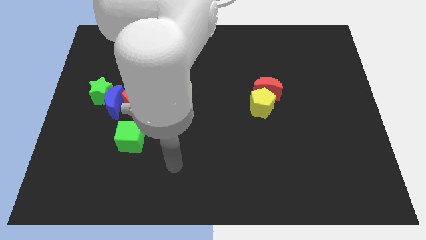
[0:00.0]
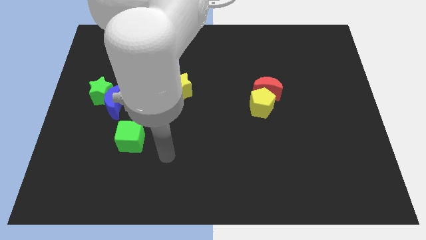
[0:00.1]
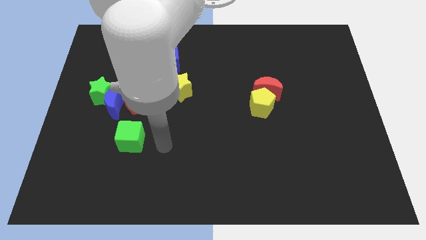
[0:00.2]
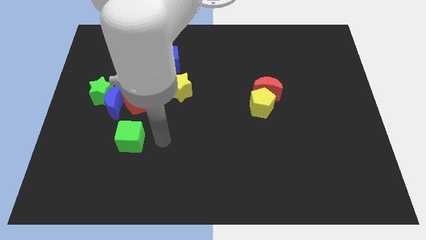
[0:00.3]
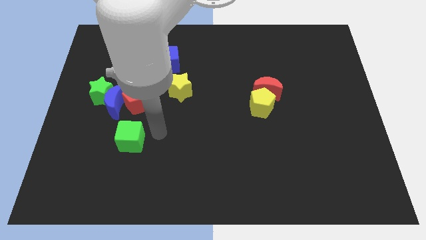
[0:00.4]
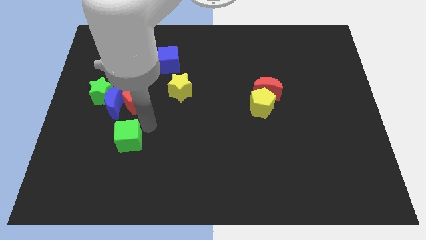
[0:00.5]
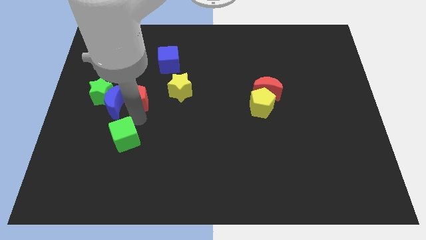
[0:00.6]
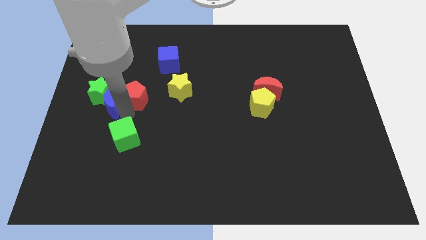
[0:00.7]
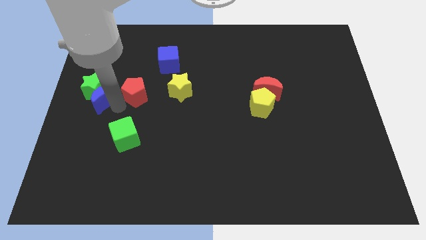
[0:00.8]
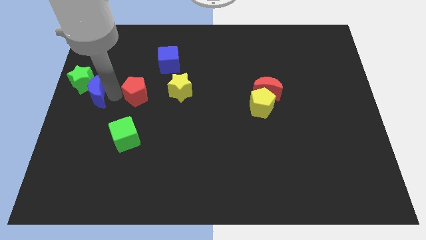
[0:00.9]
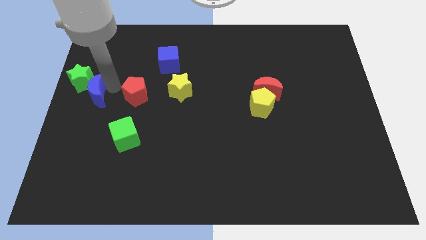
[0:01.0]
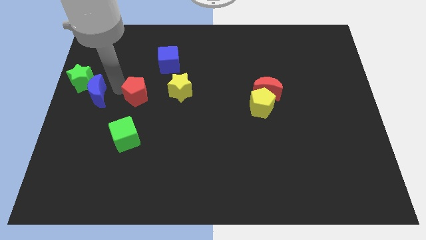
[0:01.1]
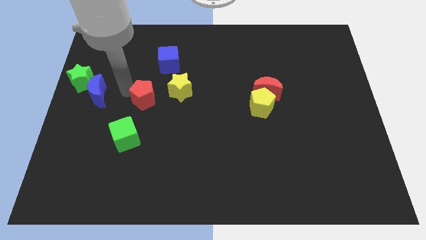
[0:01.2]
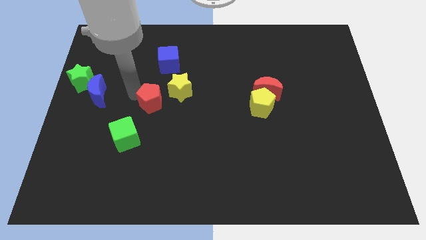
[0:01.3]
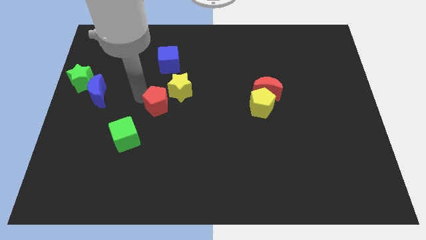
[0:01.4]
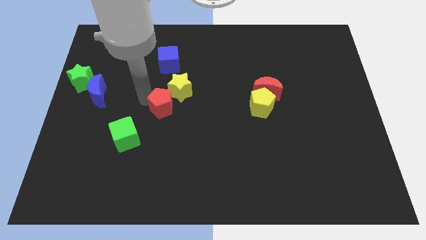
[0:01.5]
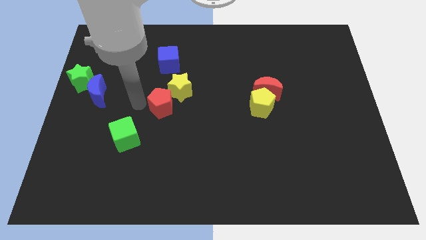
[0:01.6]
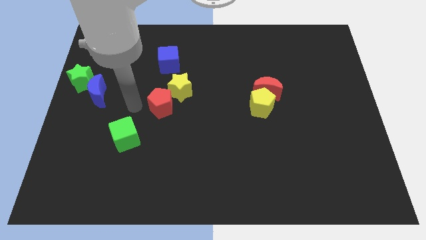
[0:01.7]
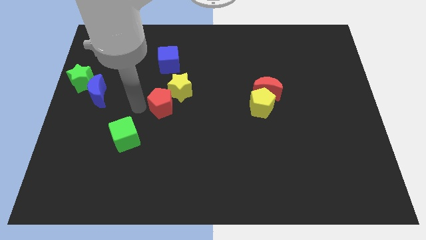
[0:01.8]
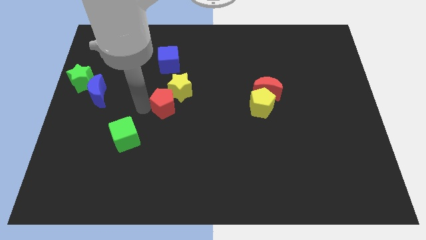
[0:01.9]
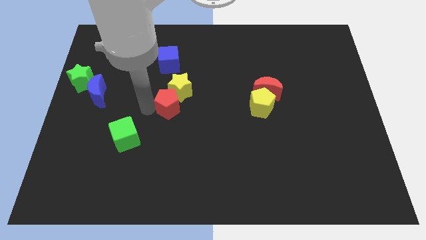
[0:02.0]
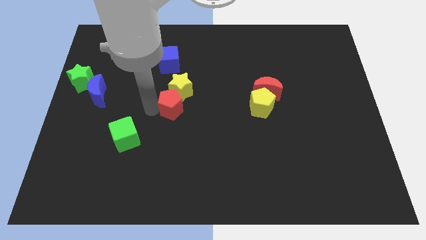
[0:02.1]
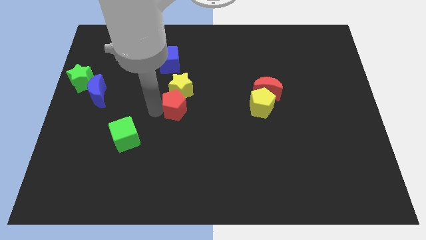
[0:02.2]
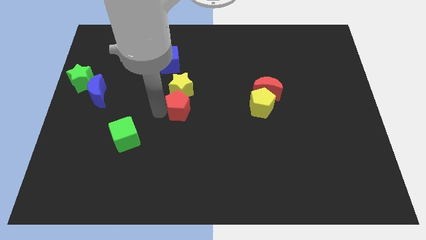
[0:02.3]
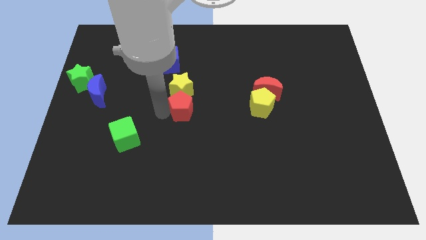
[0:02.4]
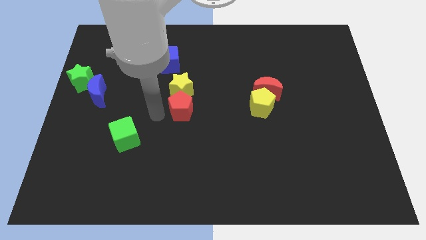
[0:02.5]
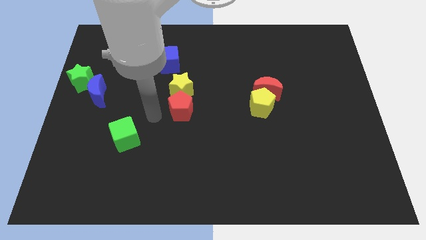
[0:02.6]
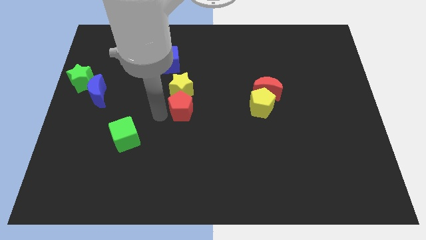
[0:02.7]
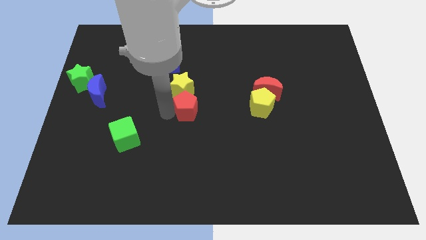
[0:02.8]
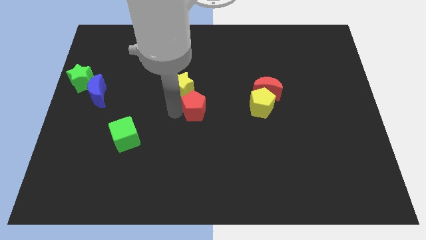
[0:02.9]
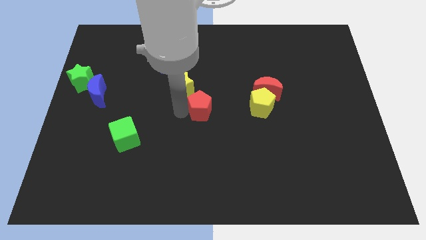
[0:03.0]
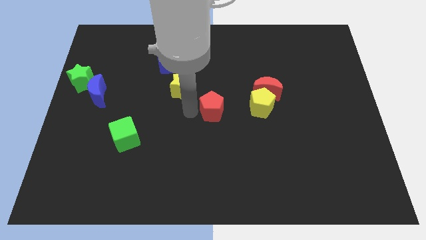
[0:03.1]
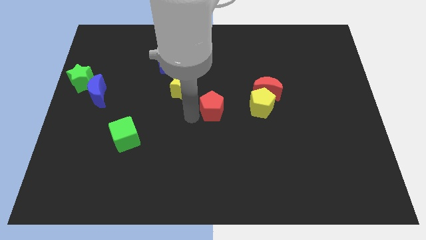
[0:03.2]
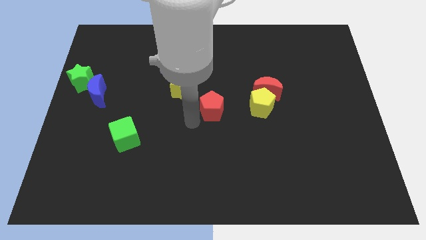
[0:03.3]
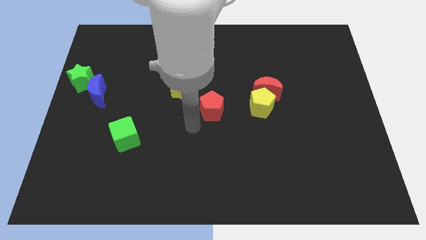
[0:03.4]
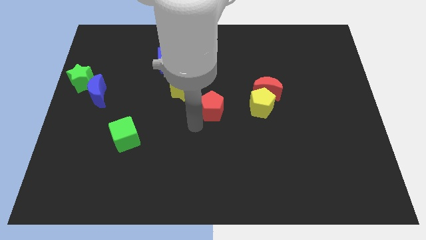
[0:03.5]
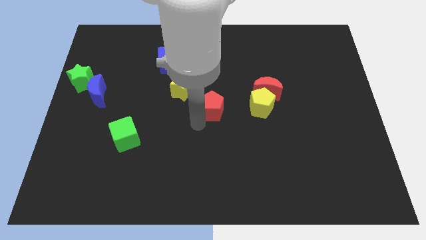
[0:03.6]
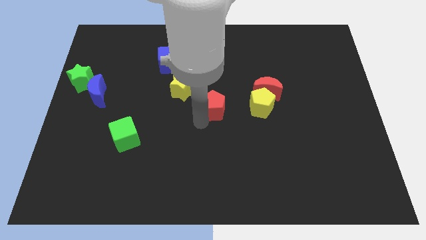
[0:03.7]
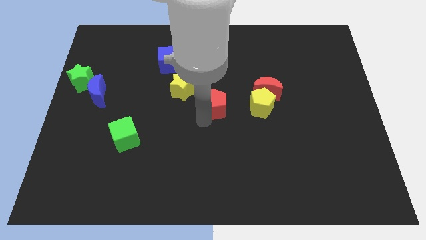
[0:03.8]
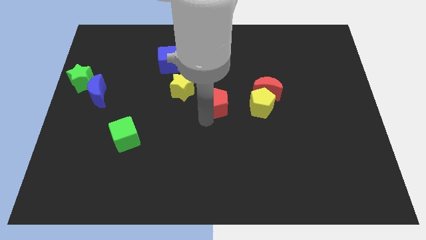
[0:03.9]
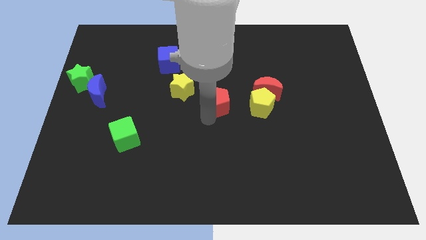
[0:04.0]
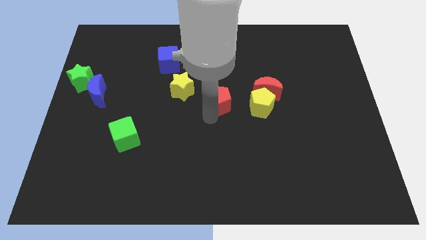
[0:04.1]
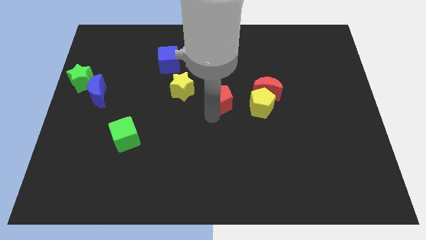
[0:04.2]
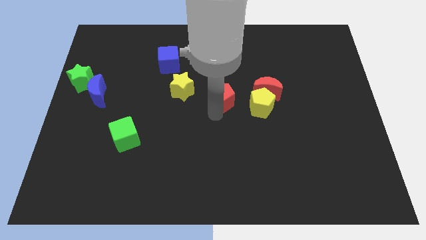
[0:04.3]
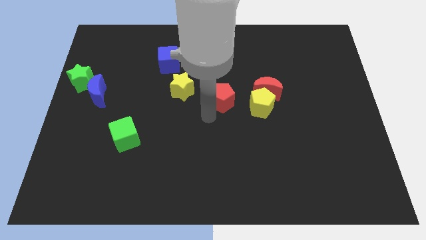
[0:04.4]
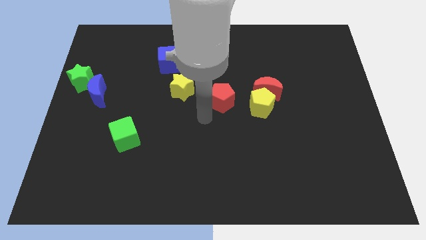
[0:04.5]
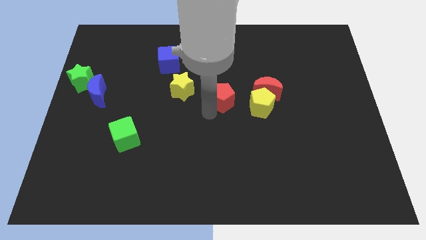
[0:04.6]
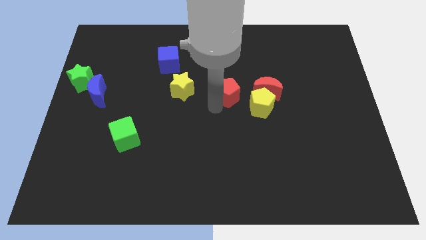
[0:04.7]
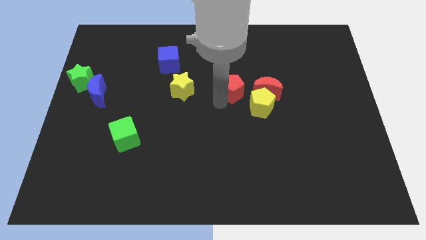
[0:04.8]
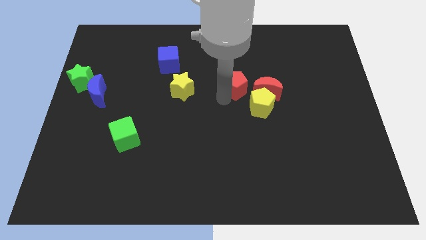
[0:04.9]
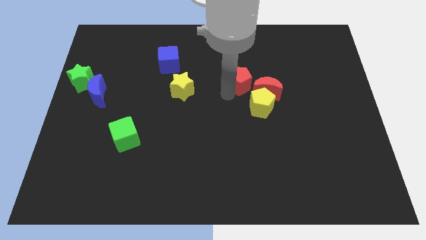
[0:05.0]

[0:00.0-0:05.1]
push the red pentagon to the top side of the yellow pentagon

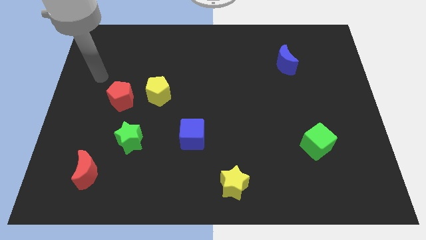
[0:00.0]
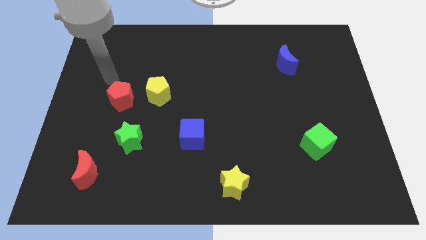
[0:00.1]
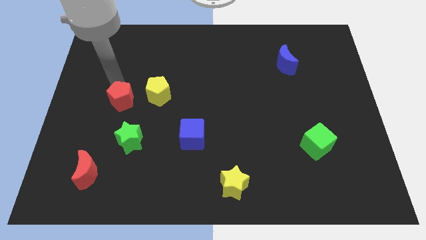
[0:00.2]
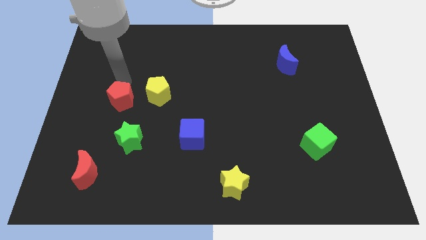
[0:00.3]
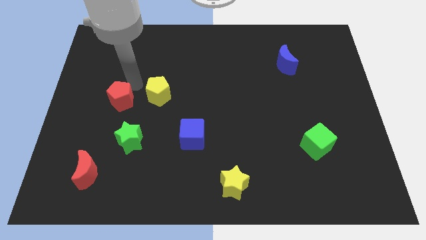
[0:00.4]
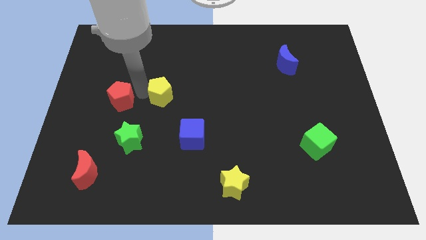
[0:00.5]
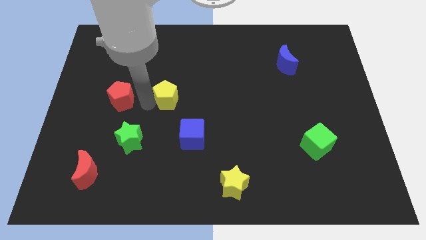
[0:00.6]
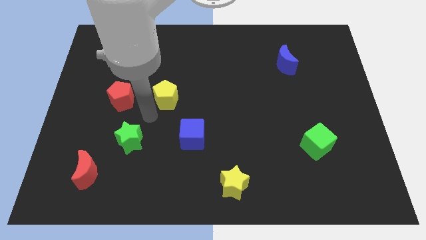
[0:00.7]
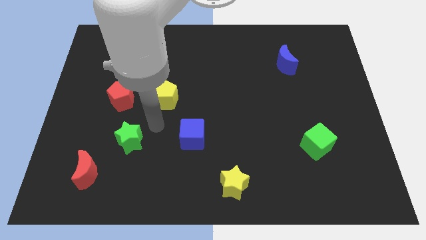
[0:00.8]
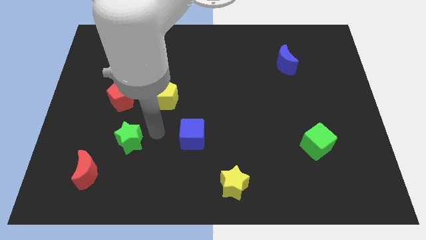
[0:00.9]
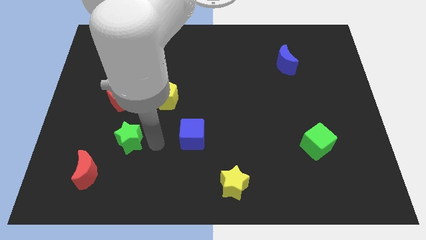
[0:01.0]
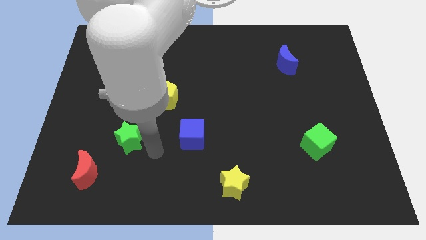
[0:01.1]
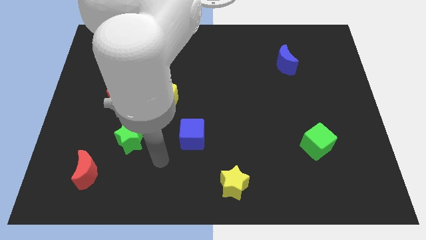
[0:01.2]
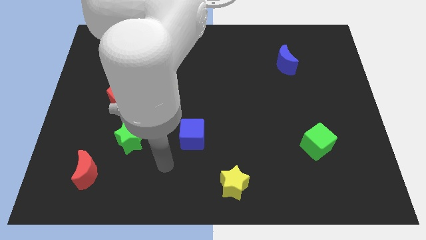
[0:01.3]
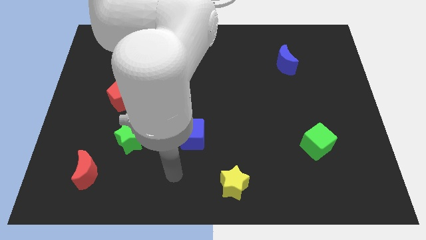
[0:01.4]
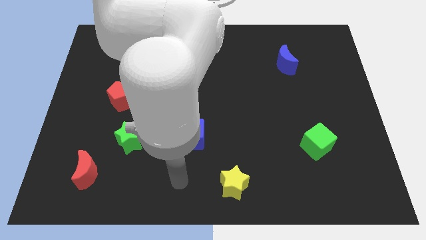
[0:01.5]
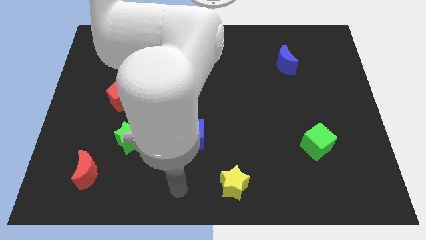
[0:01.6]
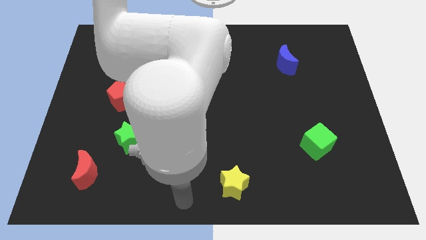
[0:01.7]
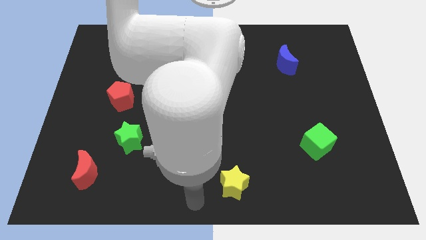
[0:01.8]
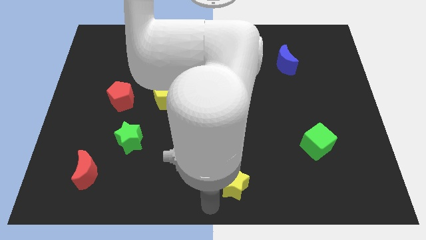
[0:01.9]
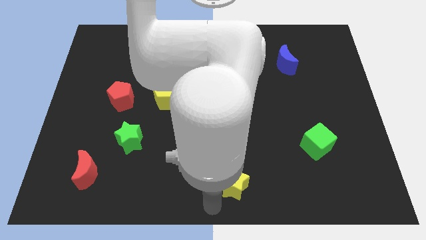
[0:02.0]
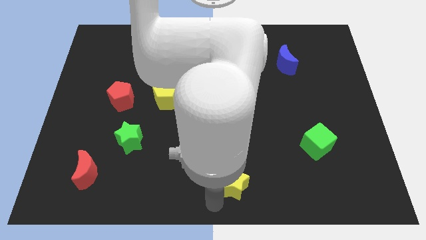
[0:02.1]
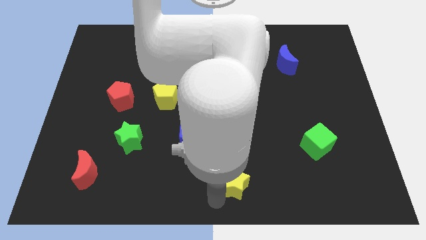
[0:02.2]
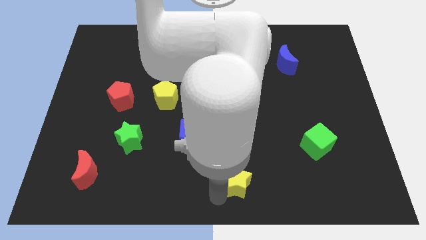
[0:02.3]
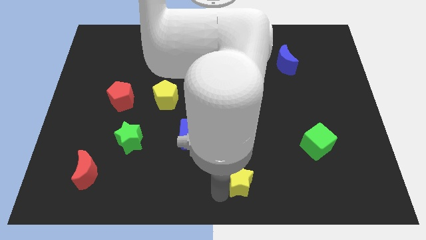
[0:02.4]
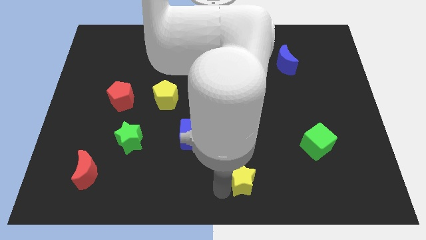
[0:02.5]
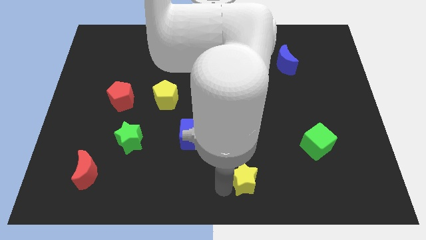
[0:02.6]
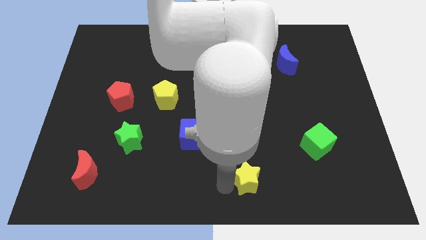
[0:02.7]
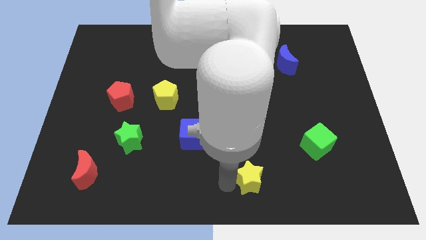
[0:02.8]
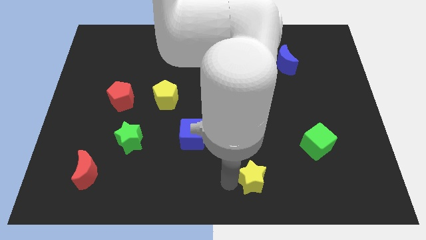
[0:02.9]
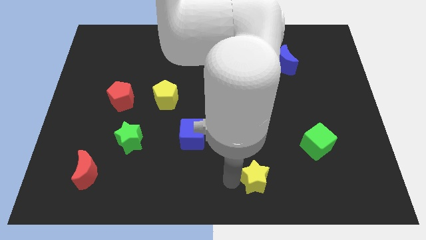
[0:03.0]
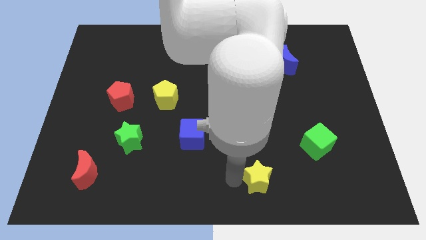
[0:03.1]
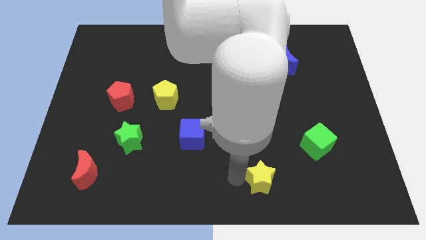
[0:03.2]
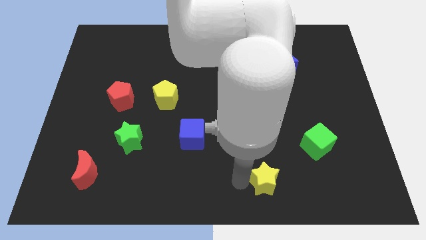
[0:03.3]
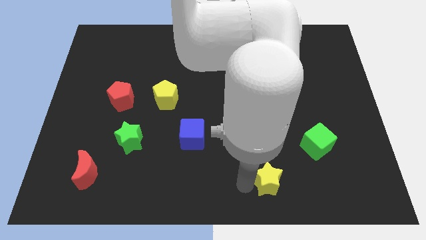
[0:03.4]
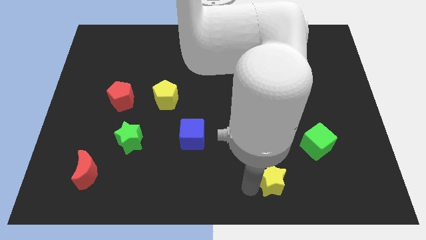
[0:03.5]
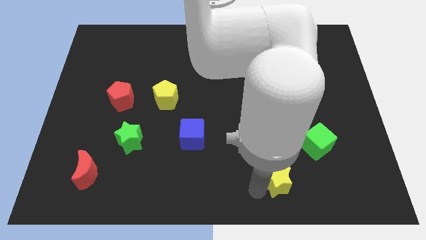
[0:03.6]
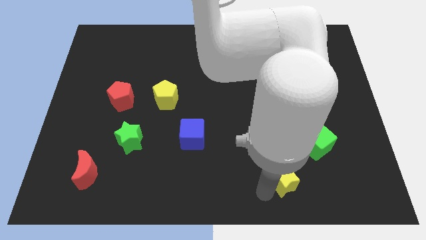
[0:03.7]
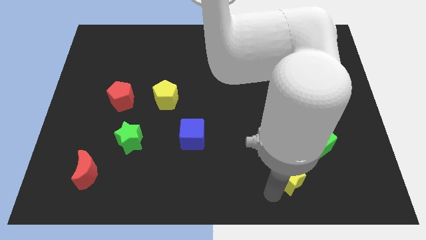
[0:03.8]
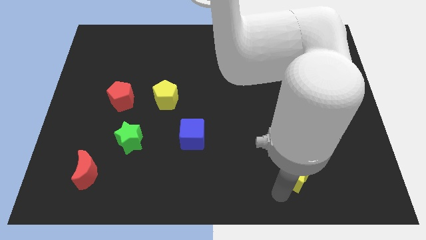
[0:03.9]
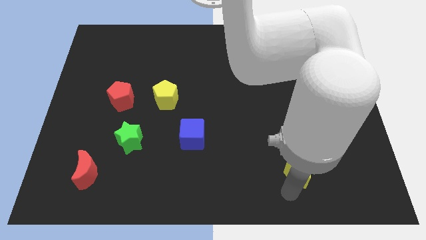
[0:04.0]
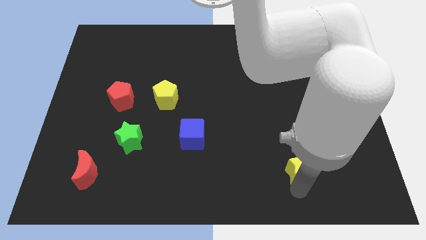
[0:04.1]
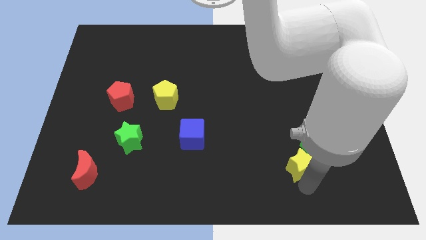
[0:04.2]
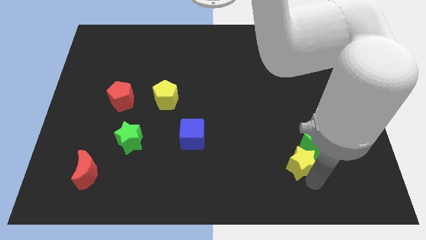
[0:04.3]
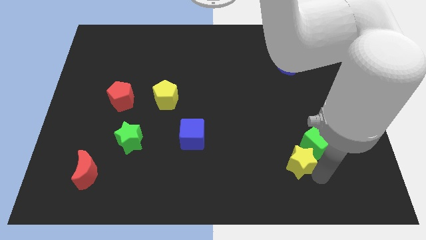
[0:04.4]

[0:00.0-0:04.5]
push the yellow star to the left side of the green cube
